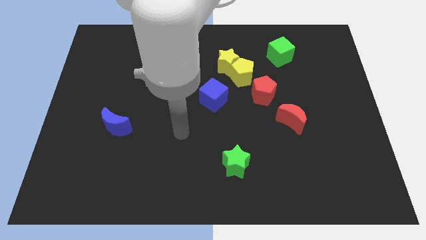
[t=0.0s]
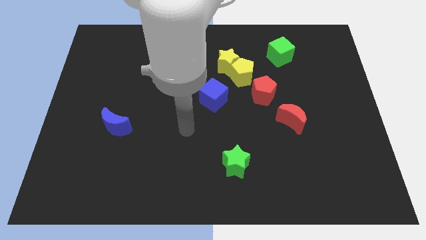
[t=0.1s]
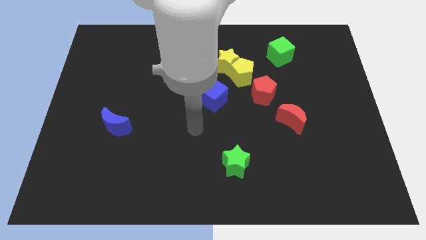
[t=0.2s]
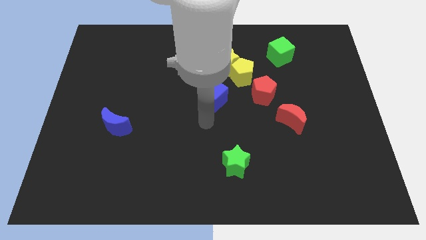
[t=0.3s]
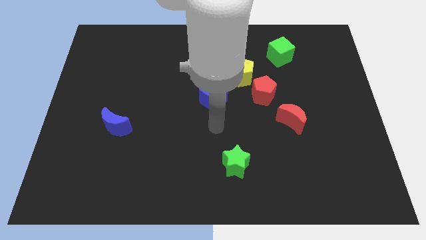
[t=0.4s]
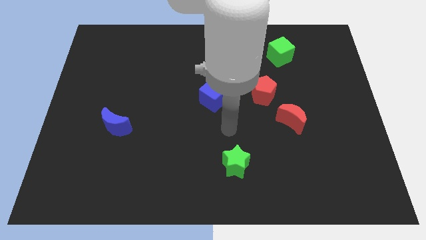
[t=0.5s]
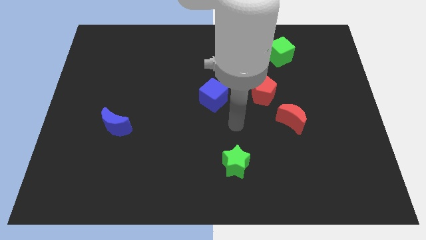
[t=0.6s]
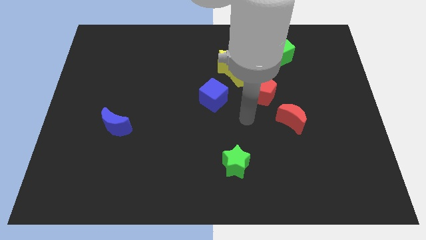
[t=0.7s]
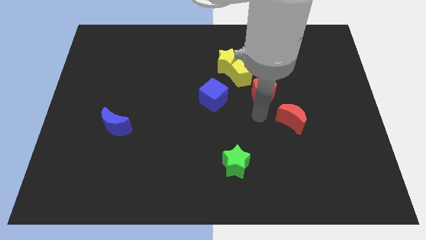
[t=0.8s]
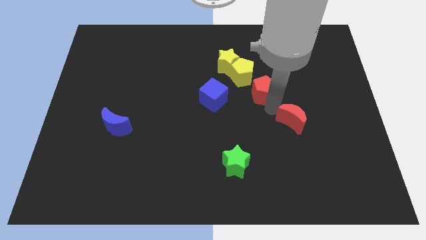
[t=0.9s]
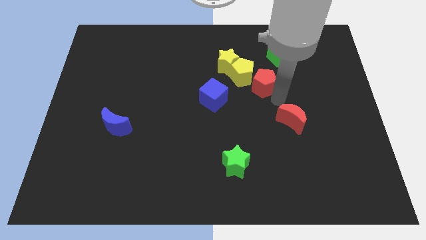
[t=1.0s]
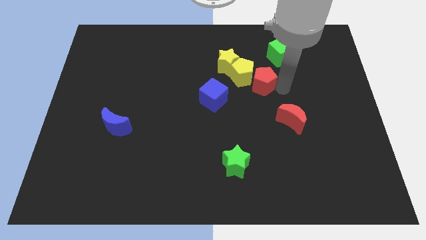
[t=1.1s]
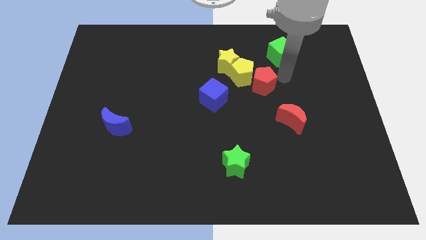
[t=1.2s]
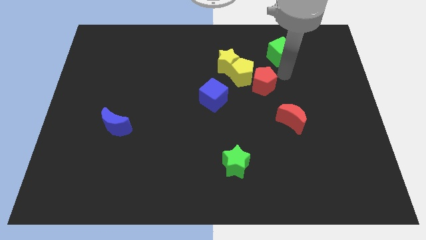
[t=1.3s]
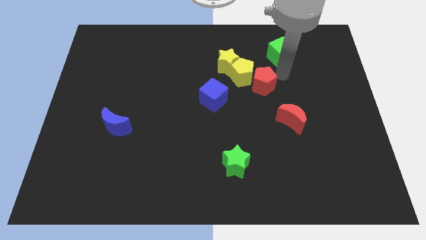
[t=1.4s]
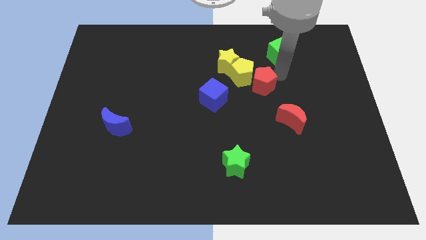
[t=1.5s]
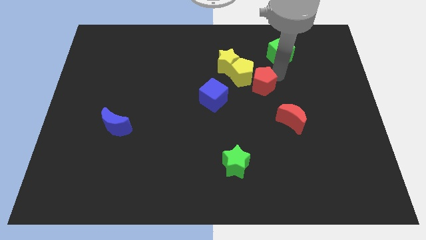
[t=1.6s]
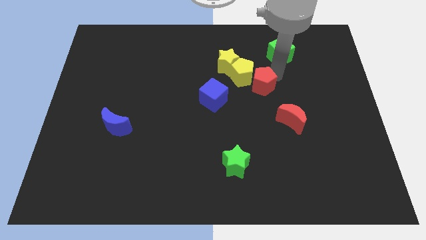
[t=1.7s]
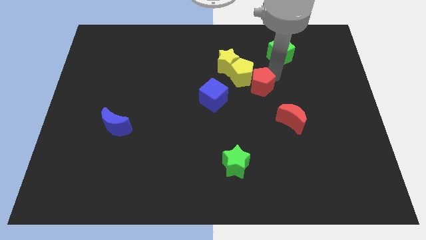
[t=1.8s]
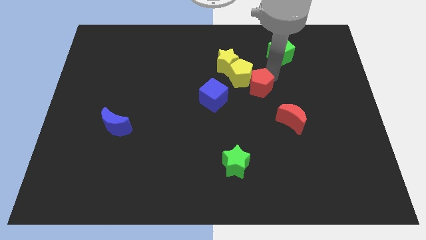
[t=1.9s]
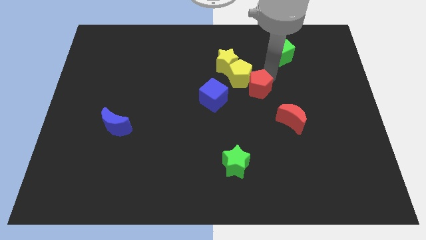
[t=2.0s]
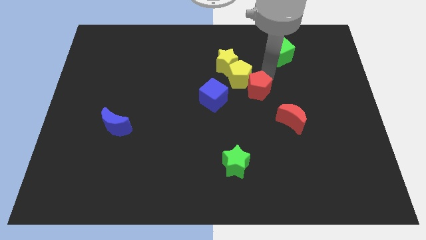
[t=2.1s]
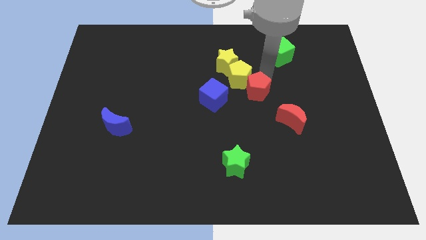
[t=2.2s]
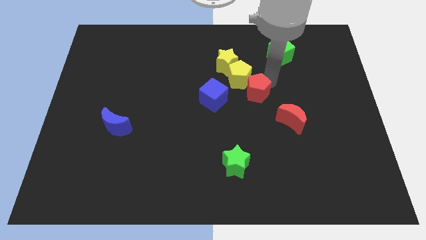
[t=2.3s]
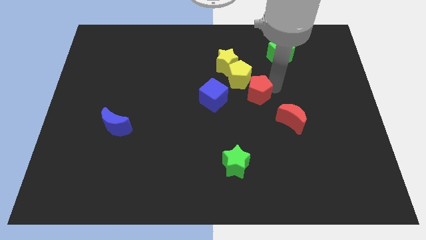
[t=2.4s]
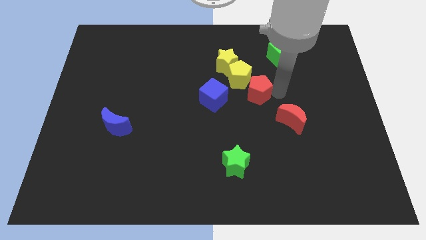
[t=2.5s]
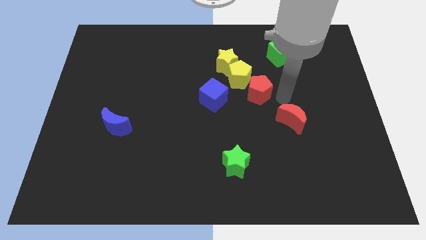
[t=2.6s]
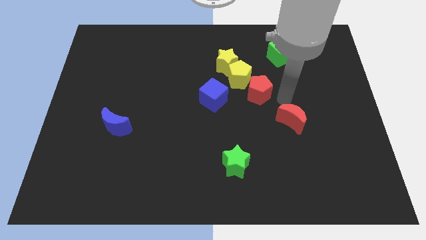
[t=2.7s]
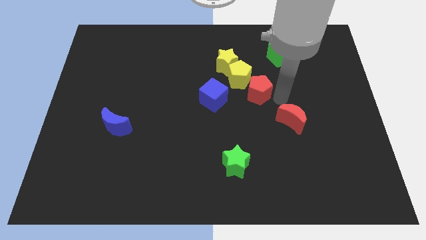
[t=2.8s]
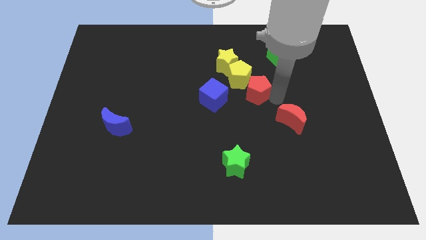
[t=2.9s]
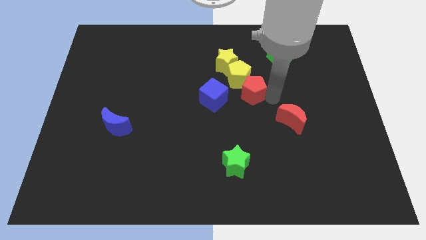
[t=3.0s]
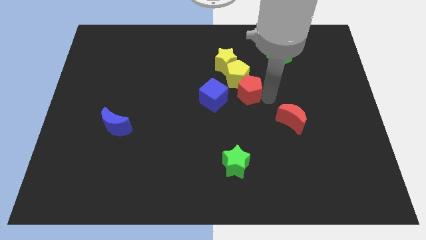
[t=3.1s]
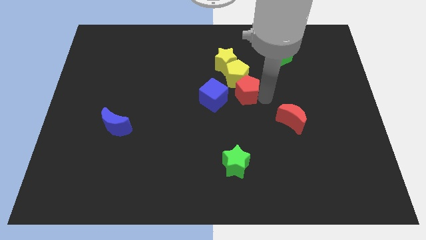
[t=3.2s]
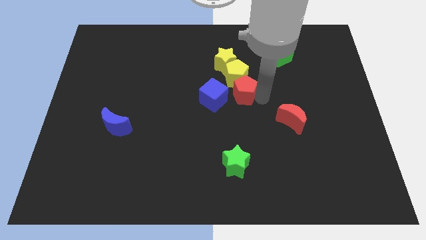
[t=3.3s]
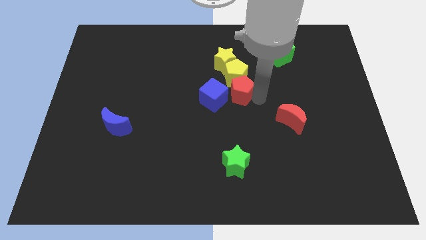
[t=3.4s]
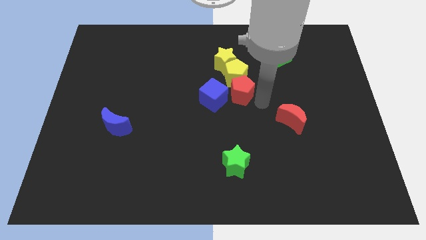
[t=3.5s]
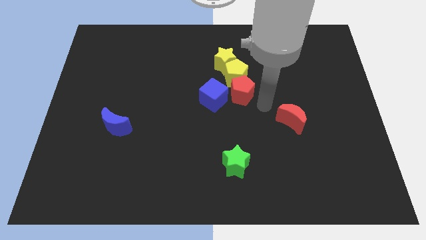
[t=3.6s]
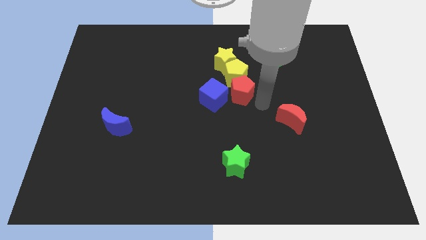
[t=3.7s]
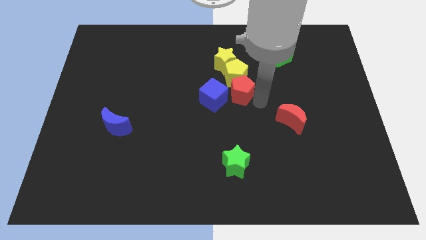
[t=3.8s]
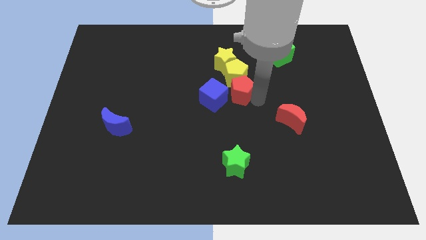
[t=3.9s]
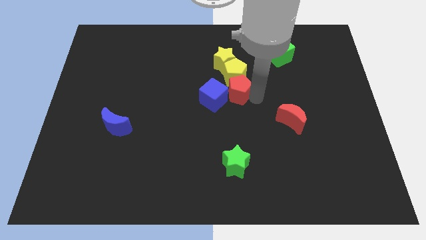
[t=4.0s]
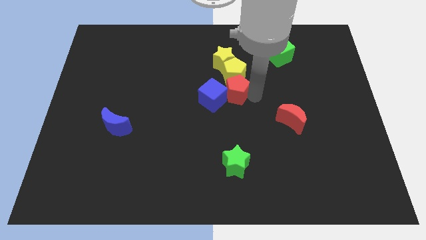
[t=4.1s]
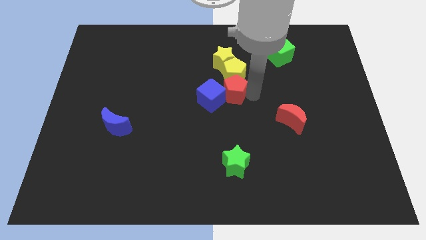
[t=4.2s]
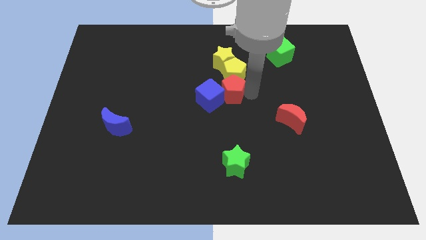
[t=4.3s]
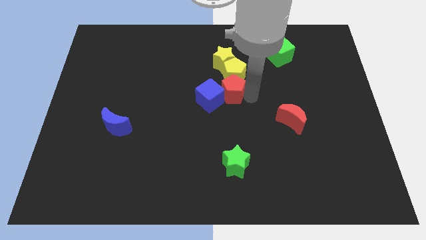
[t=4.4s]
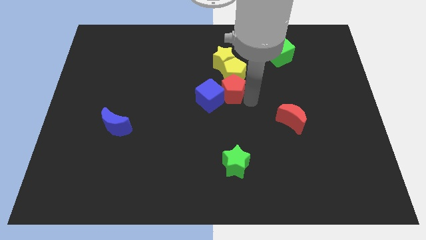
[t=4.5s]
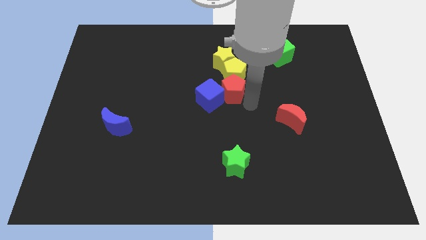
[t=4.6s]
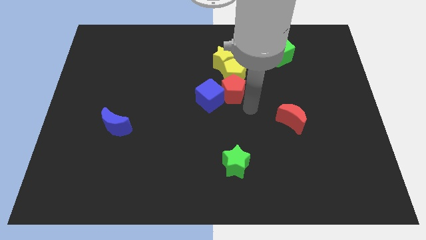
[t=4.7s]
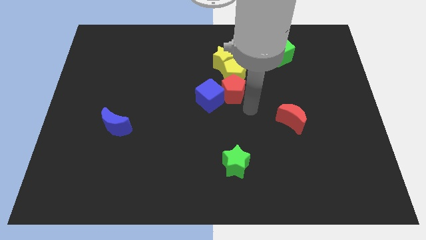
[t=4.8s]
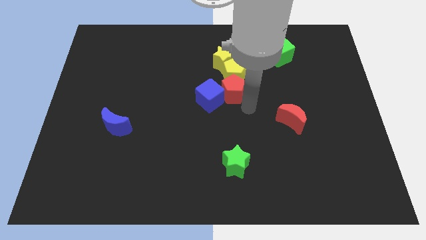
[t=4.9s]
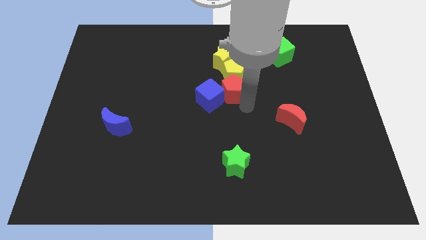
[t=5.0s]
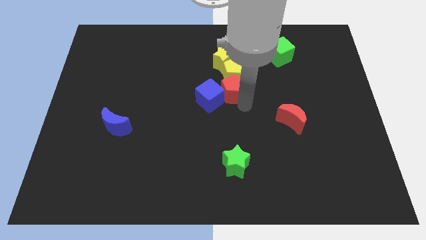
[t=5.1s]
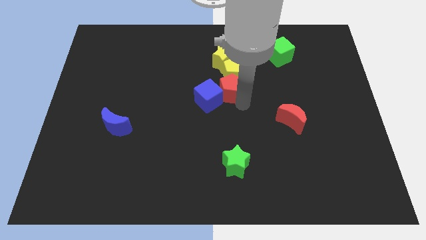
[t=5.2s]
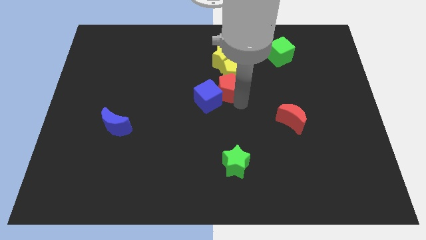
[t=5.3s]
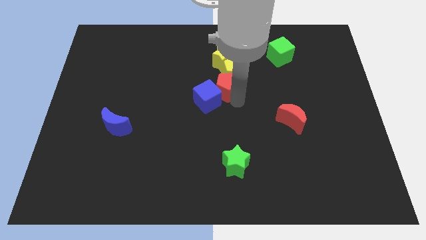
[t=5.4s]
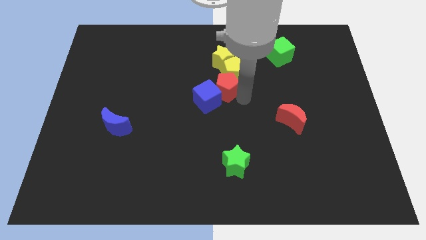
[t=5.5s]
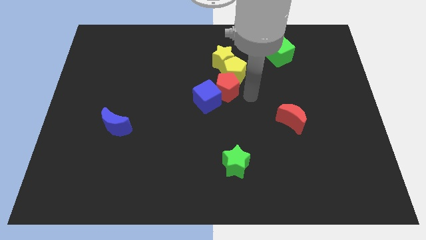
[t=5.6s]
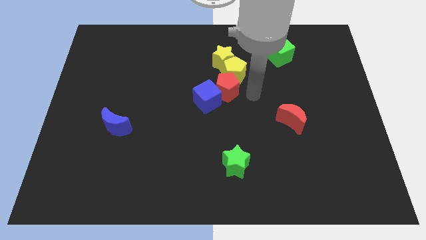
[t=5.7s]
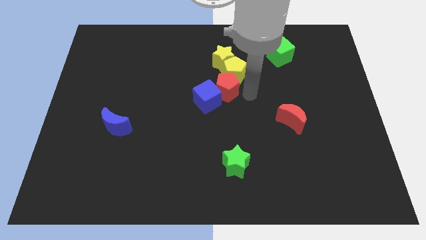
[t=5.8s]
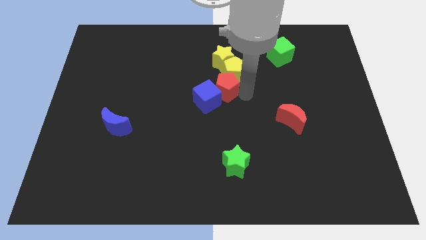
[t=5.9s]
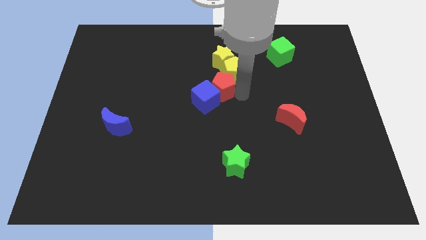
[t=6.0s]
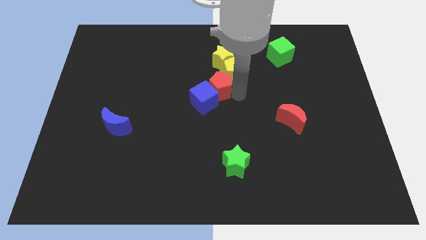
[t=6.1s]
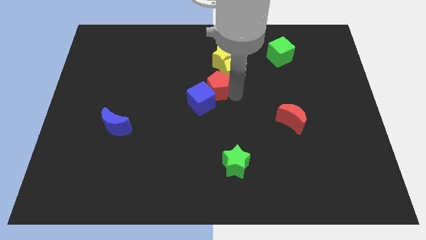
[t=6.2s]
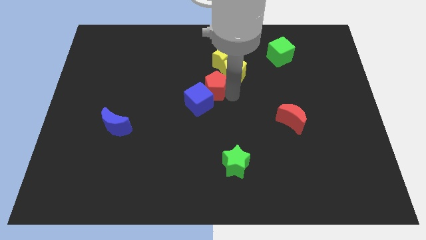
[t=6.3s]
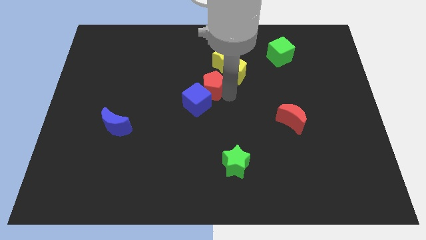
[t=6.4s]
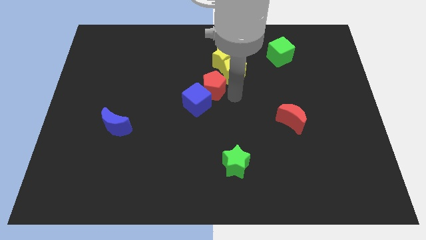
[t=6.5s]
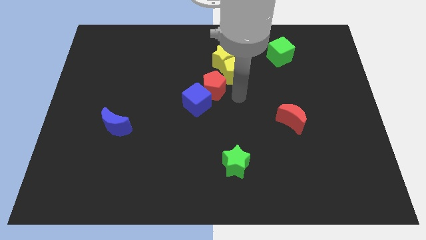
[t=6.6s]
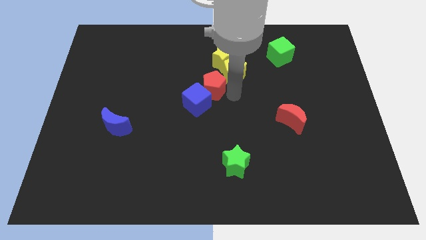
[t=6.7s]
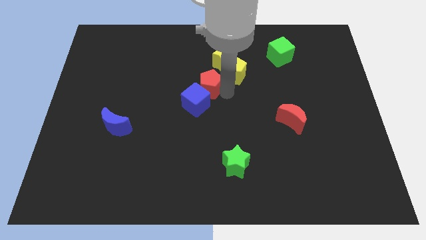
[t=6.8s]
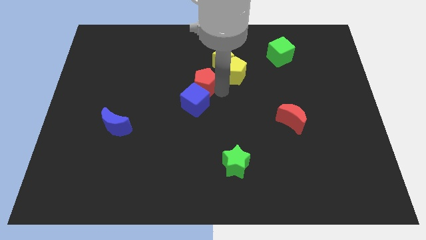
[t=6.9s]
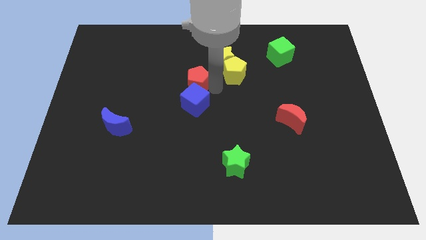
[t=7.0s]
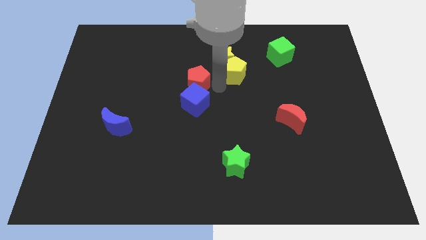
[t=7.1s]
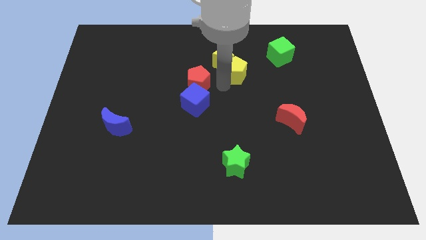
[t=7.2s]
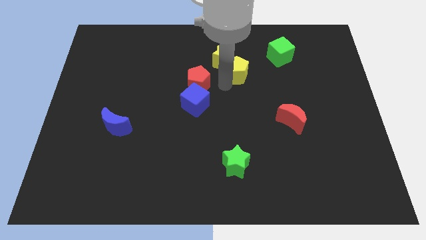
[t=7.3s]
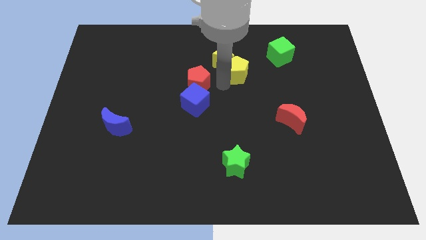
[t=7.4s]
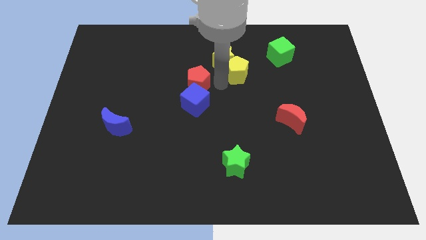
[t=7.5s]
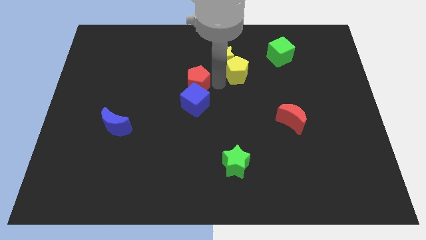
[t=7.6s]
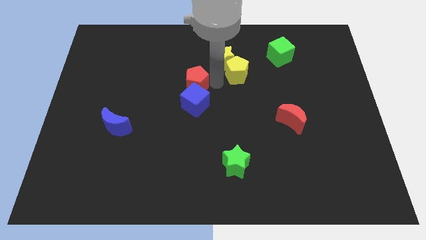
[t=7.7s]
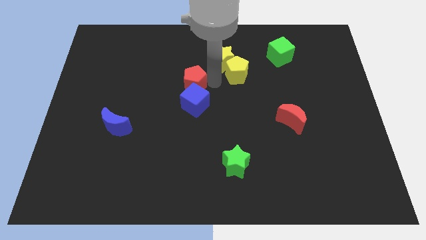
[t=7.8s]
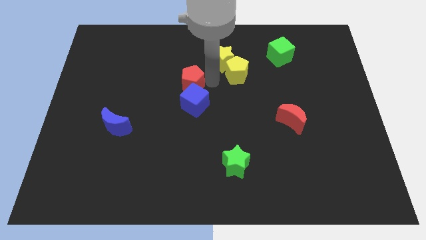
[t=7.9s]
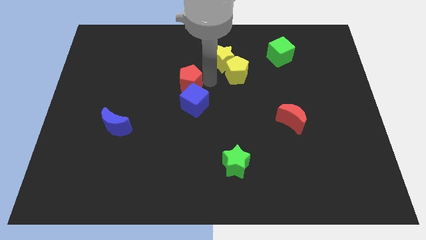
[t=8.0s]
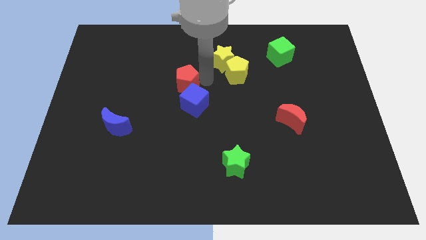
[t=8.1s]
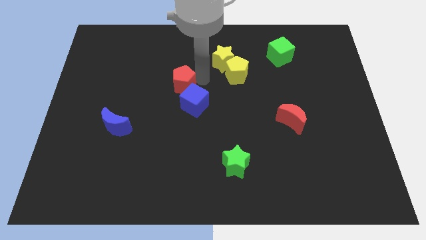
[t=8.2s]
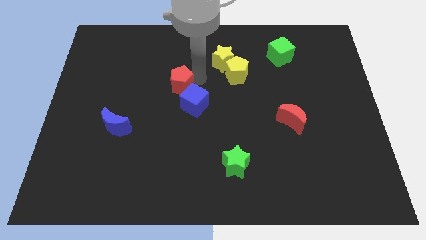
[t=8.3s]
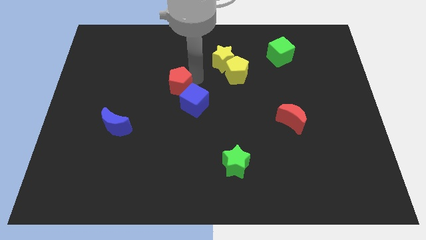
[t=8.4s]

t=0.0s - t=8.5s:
push the red pentagon left
